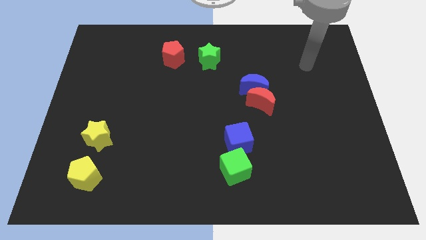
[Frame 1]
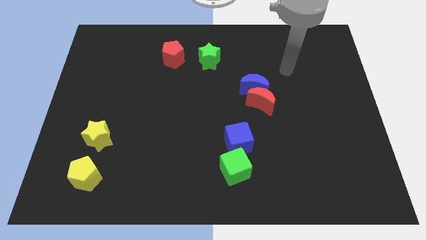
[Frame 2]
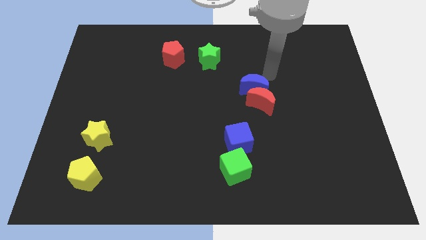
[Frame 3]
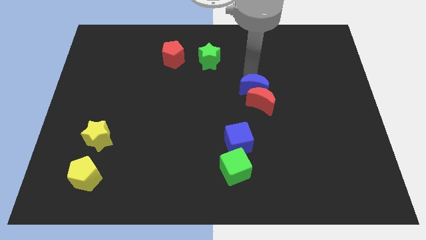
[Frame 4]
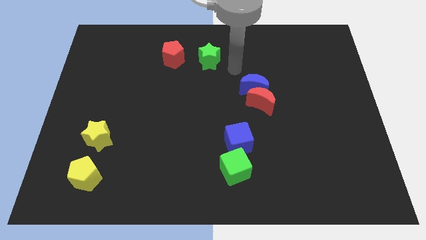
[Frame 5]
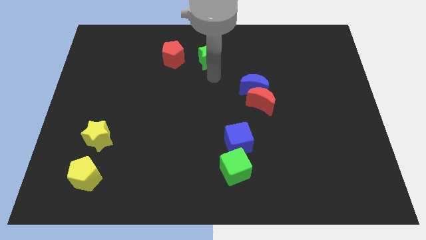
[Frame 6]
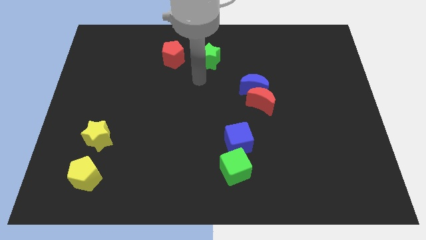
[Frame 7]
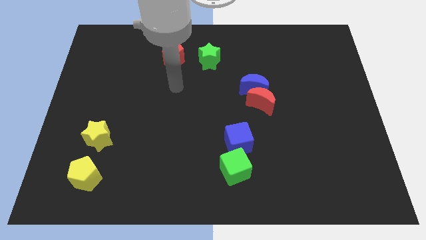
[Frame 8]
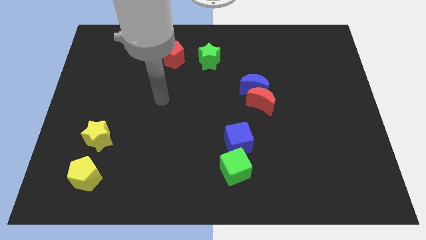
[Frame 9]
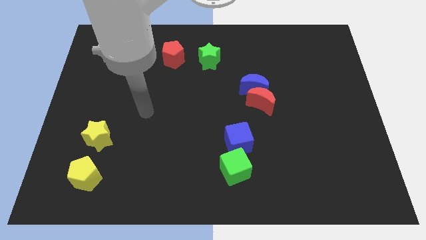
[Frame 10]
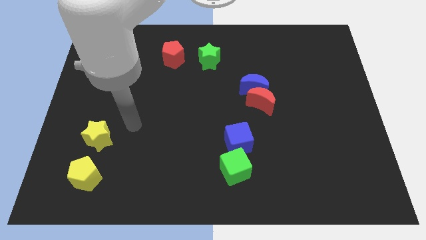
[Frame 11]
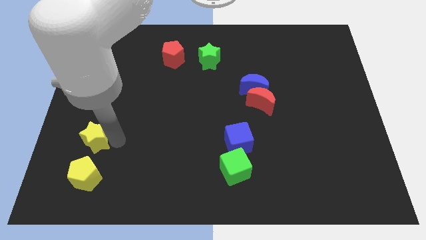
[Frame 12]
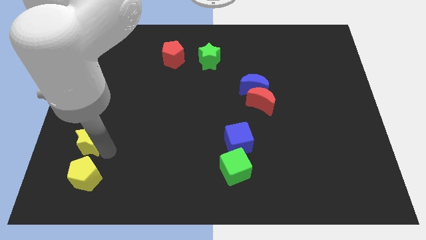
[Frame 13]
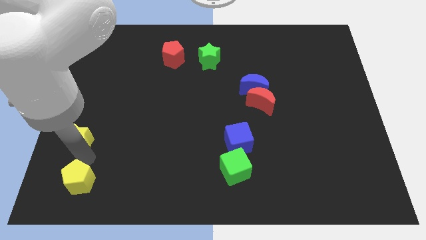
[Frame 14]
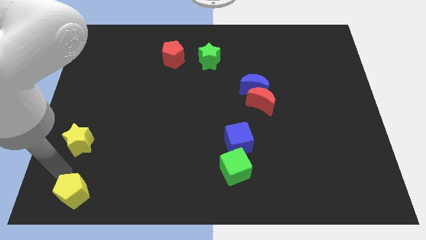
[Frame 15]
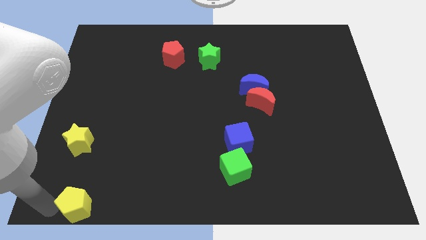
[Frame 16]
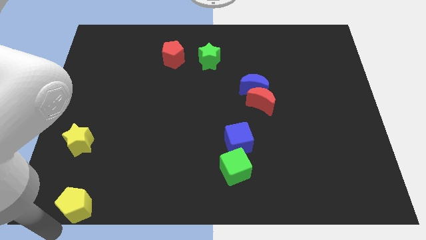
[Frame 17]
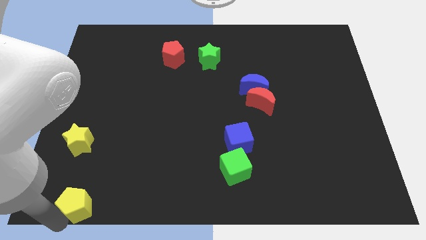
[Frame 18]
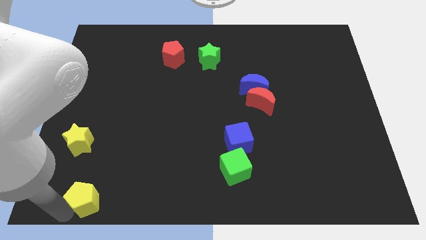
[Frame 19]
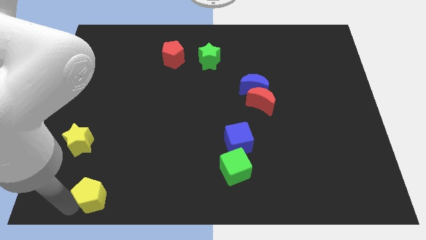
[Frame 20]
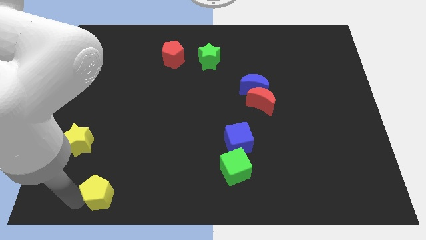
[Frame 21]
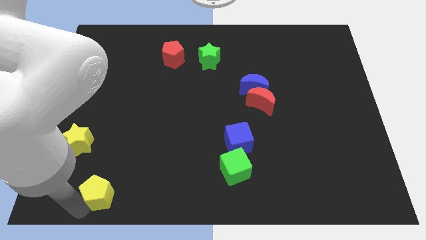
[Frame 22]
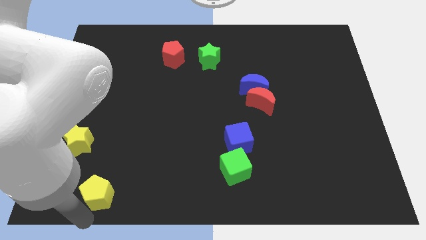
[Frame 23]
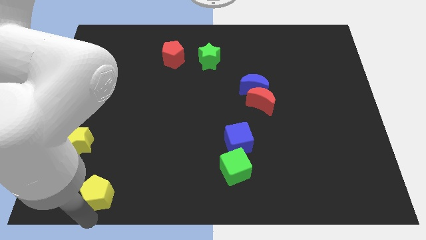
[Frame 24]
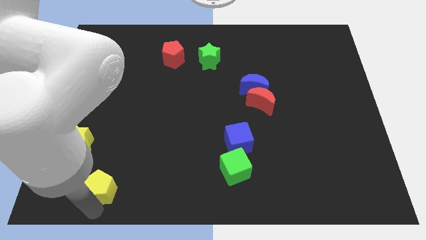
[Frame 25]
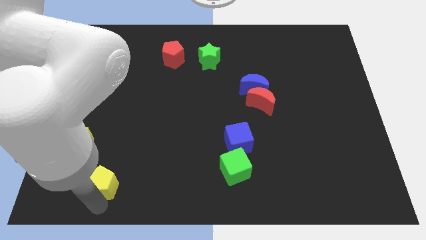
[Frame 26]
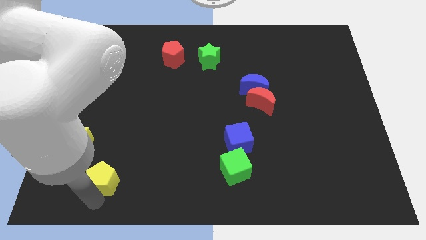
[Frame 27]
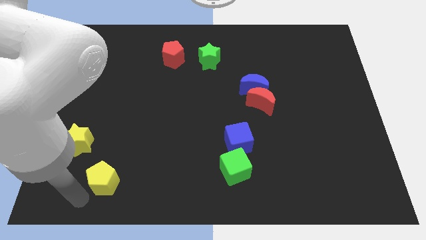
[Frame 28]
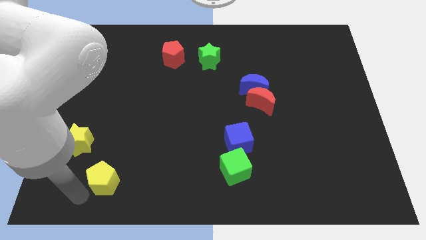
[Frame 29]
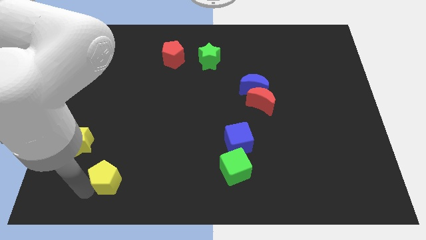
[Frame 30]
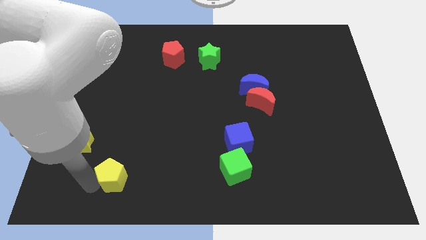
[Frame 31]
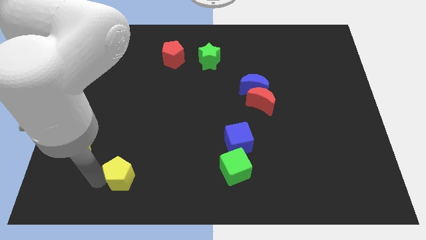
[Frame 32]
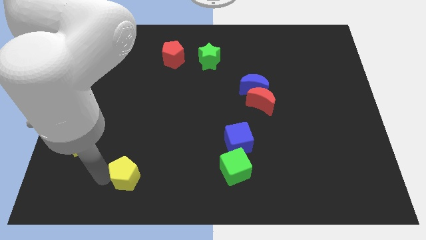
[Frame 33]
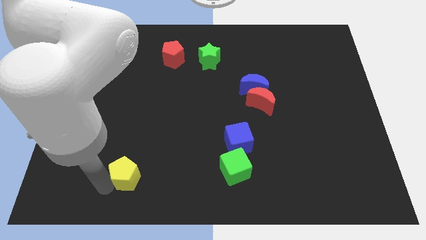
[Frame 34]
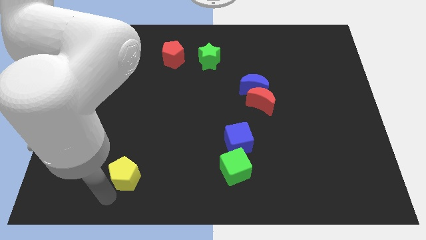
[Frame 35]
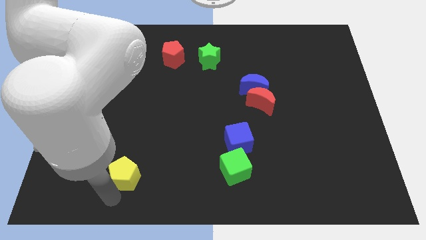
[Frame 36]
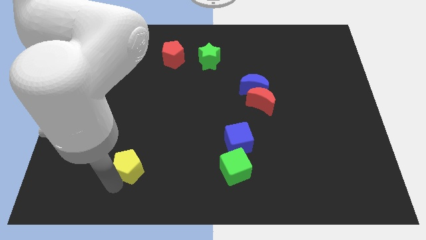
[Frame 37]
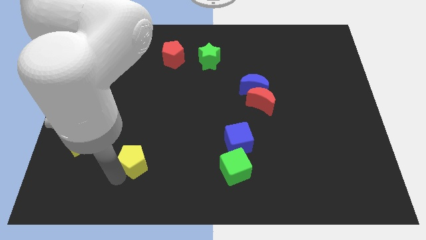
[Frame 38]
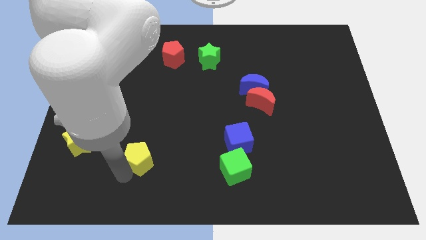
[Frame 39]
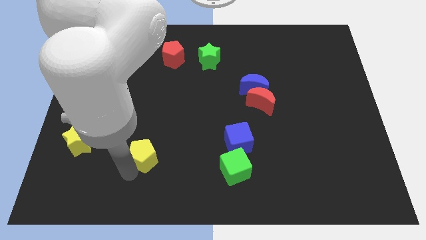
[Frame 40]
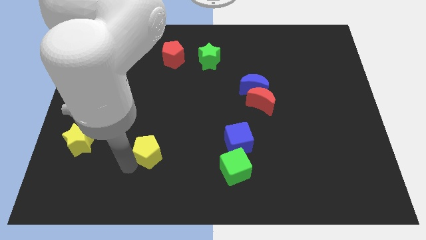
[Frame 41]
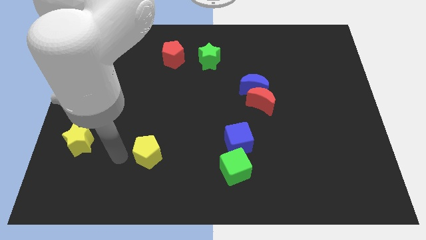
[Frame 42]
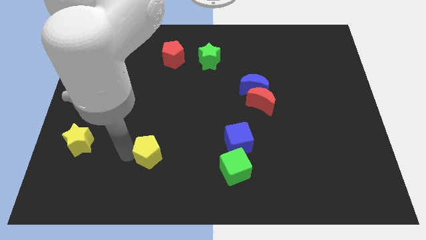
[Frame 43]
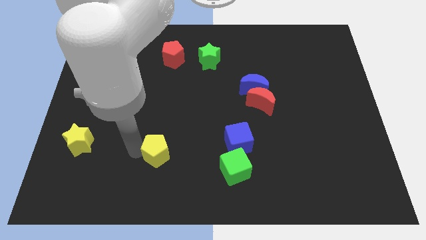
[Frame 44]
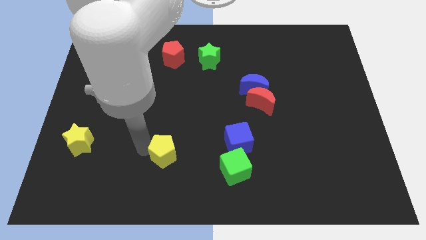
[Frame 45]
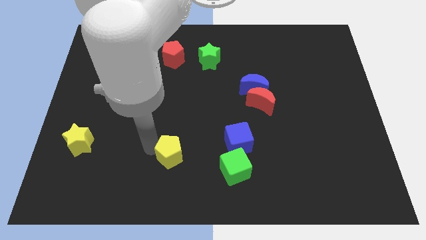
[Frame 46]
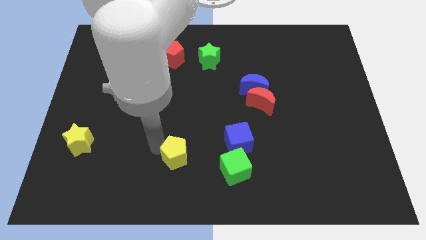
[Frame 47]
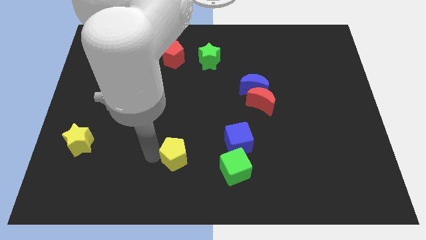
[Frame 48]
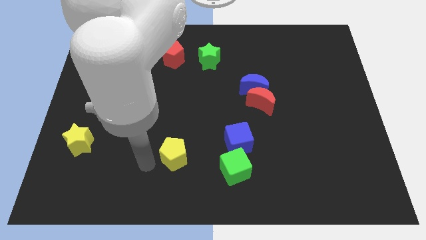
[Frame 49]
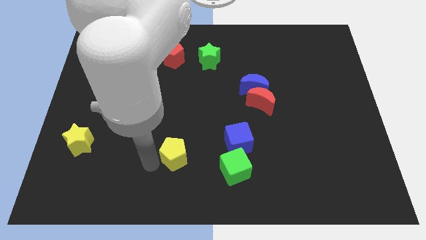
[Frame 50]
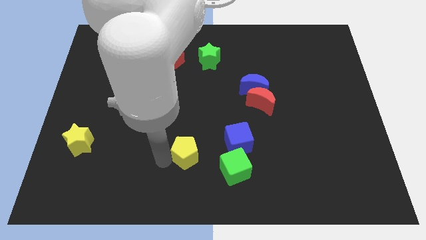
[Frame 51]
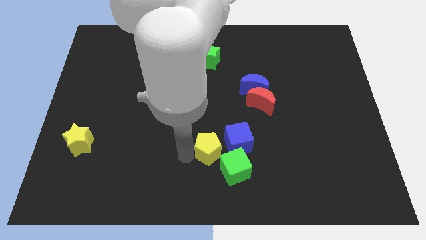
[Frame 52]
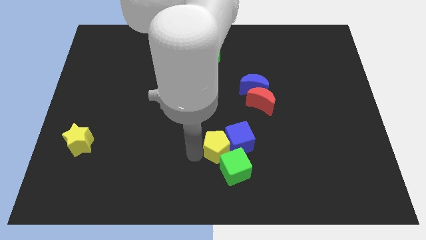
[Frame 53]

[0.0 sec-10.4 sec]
move the yellow pentagon to the blue cube

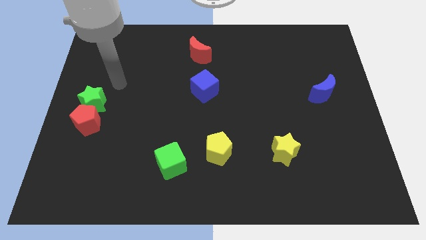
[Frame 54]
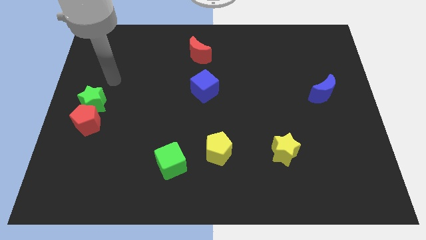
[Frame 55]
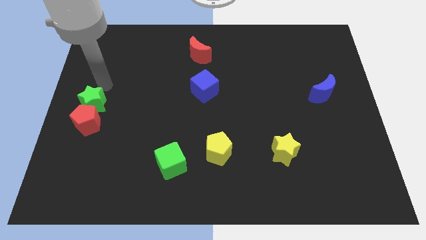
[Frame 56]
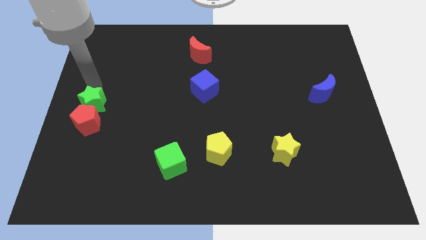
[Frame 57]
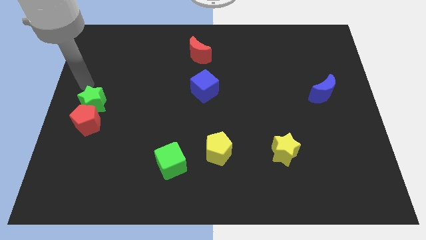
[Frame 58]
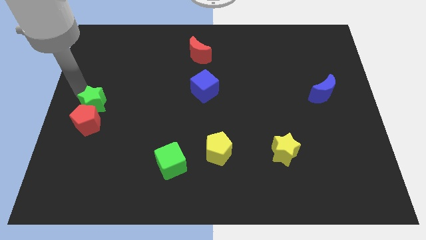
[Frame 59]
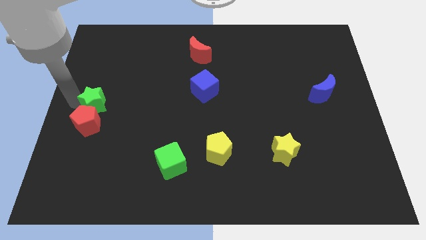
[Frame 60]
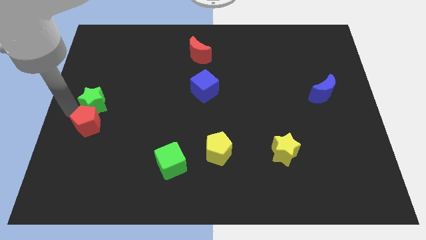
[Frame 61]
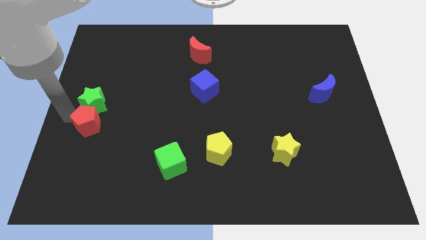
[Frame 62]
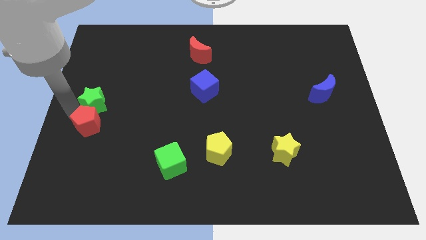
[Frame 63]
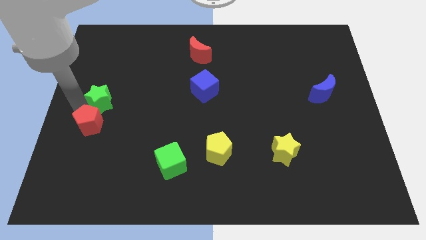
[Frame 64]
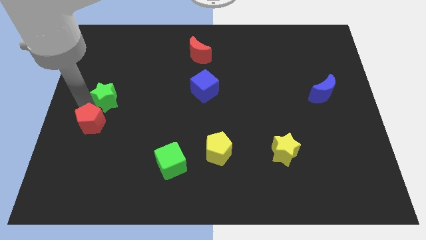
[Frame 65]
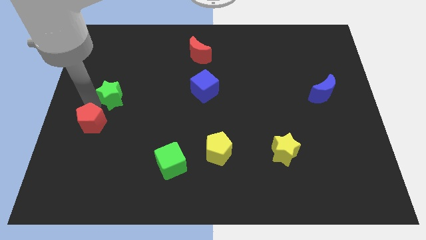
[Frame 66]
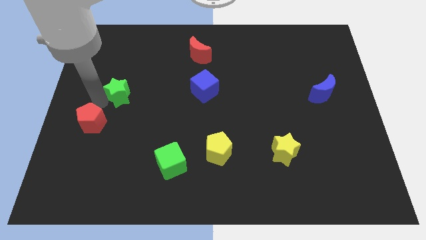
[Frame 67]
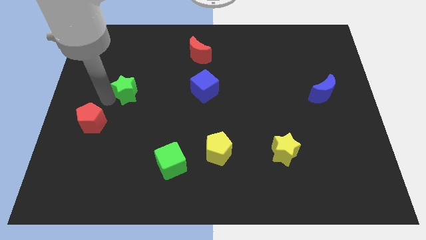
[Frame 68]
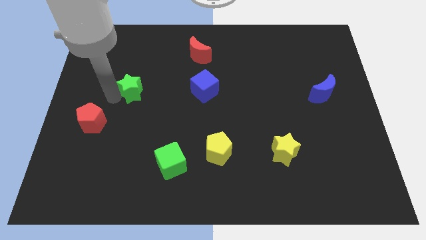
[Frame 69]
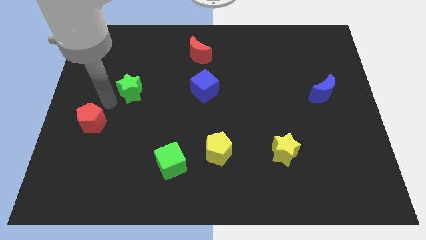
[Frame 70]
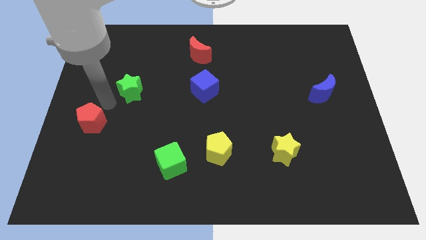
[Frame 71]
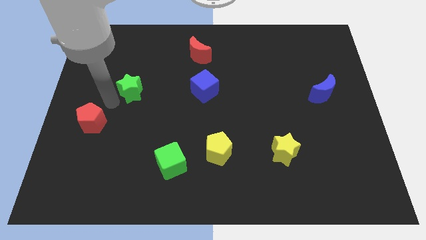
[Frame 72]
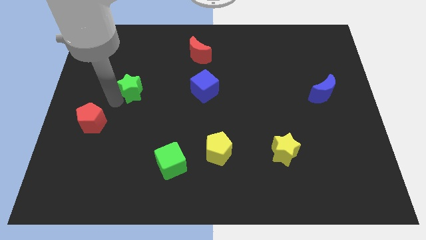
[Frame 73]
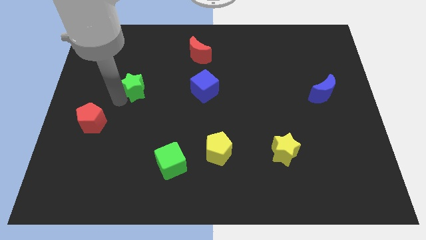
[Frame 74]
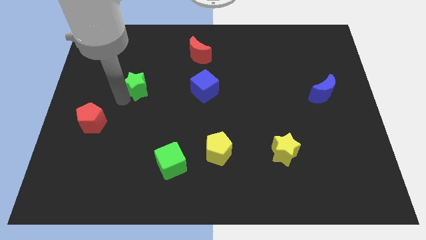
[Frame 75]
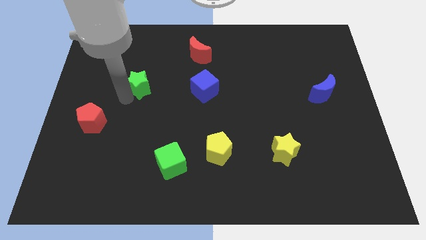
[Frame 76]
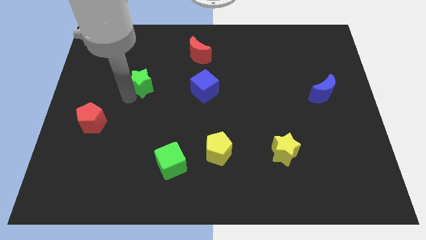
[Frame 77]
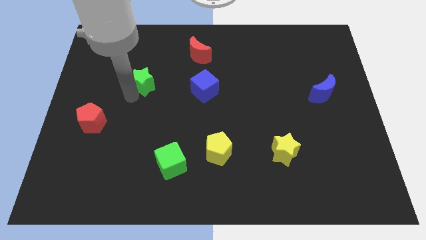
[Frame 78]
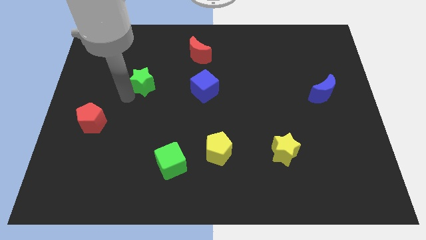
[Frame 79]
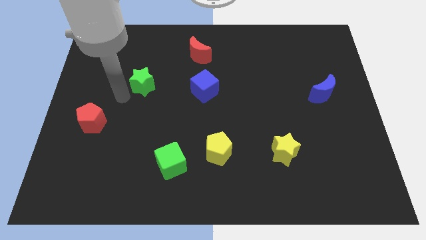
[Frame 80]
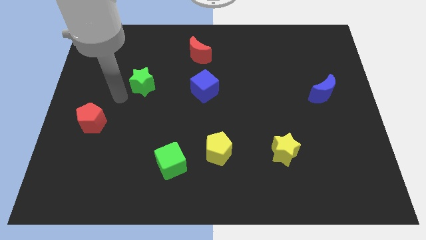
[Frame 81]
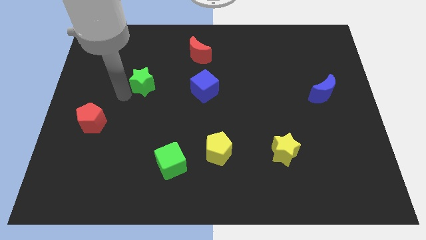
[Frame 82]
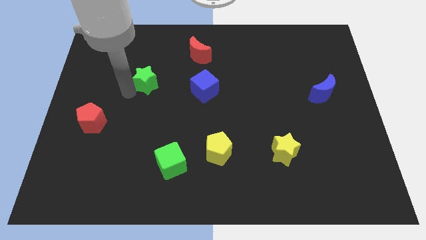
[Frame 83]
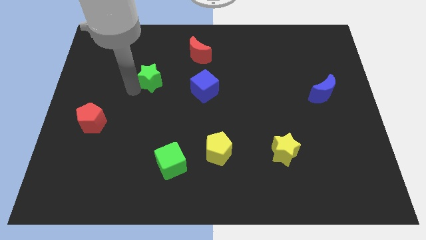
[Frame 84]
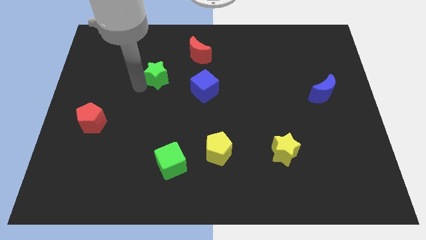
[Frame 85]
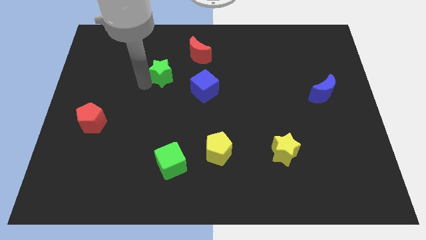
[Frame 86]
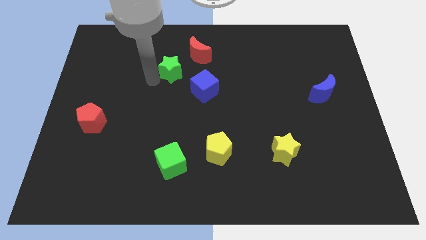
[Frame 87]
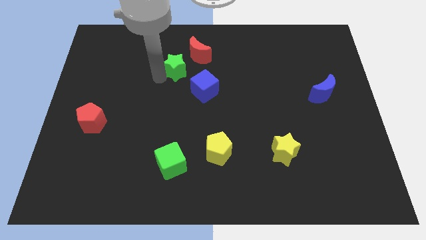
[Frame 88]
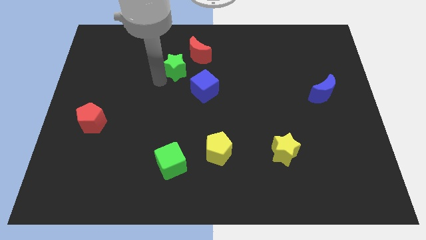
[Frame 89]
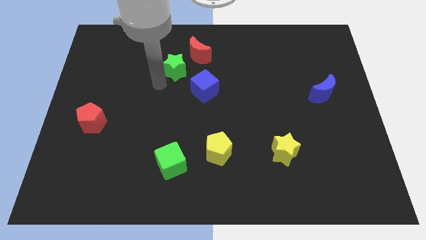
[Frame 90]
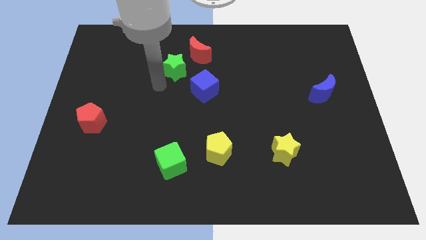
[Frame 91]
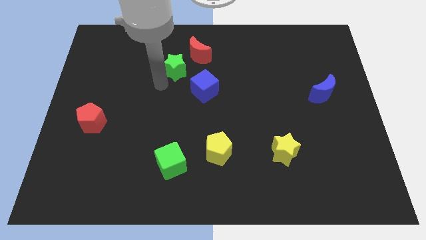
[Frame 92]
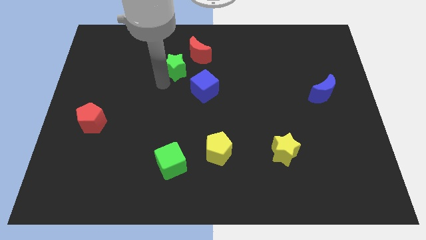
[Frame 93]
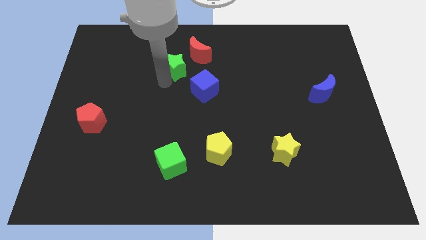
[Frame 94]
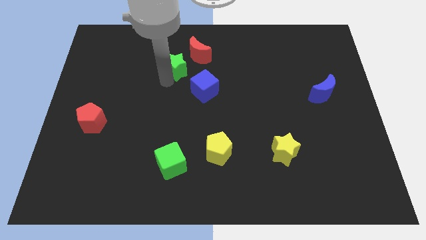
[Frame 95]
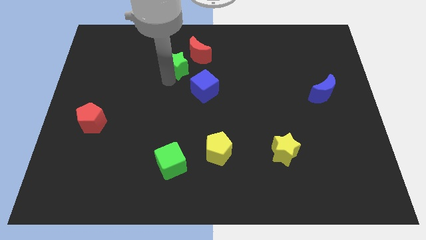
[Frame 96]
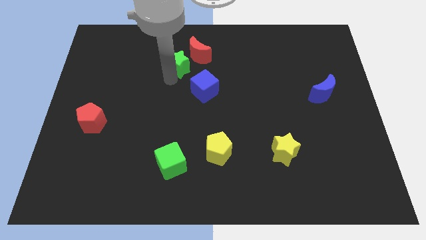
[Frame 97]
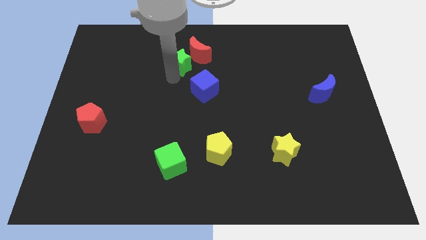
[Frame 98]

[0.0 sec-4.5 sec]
slide the green star towards the red moon
